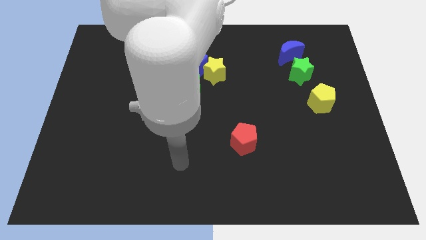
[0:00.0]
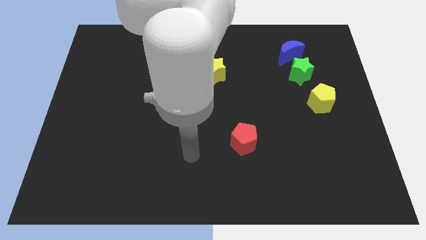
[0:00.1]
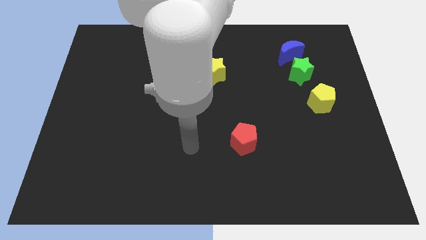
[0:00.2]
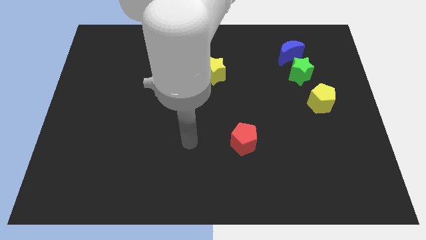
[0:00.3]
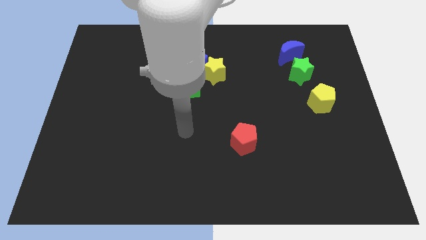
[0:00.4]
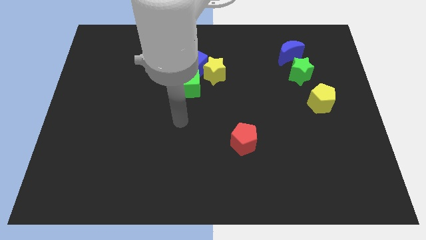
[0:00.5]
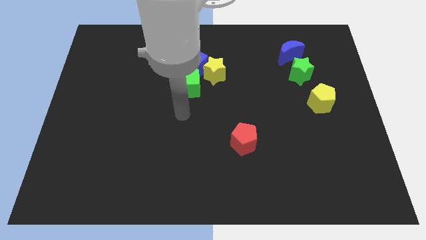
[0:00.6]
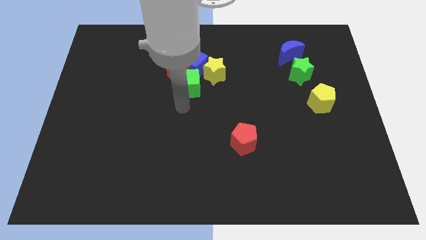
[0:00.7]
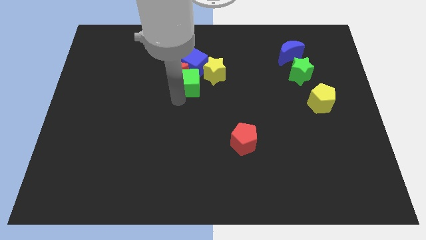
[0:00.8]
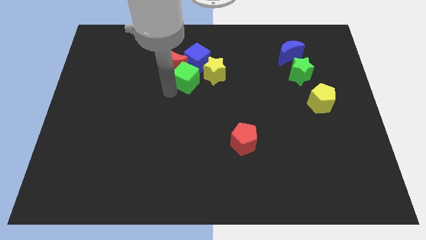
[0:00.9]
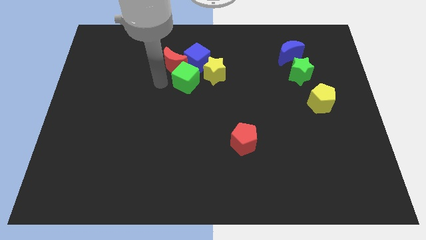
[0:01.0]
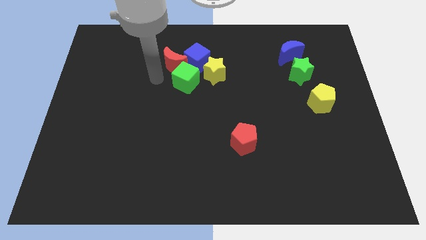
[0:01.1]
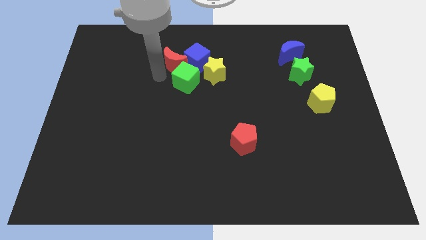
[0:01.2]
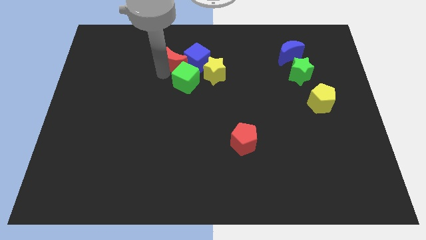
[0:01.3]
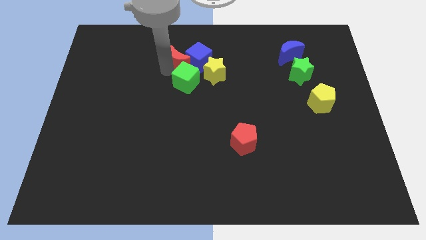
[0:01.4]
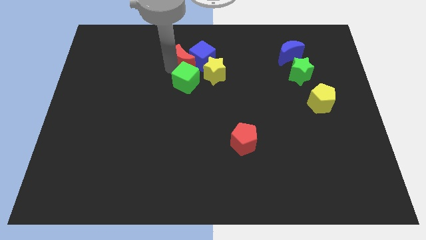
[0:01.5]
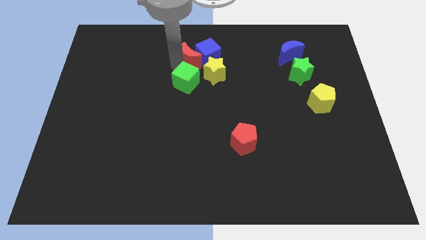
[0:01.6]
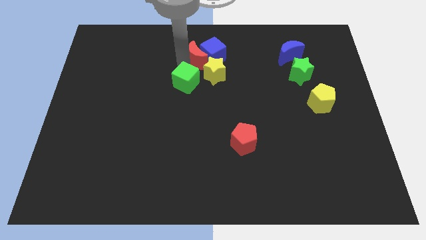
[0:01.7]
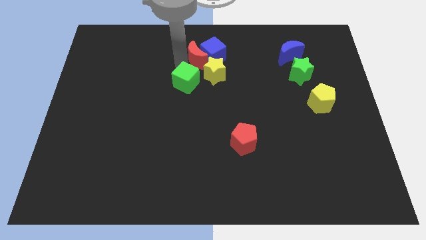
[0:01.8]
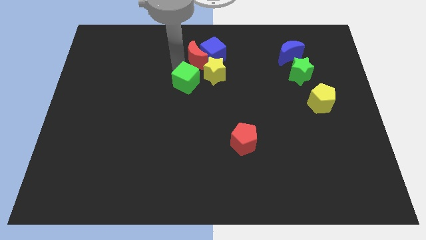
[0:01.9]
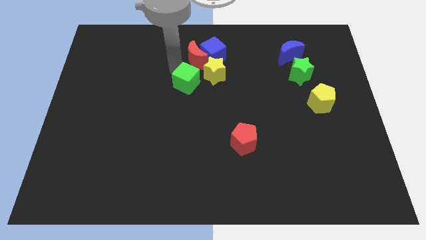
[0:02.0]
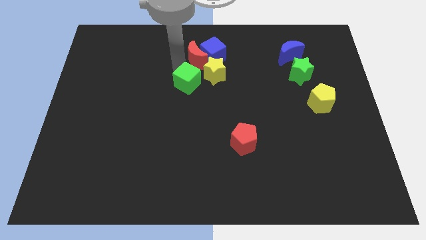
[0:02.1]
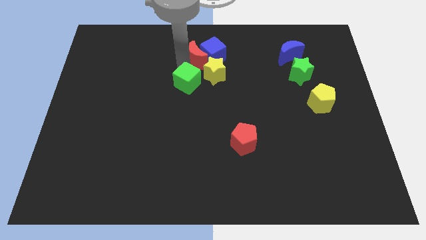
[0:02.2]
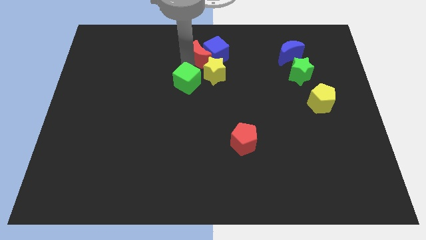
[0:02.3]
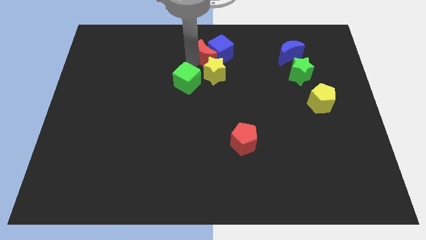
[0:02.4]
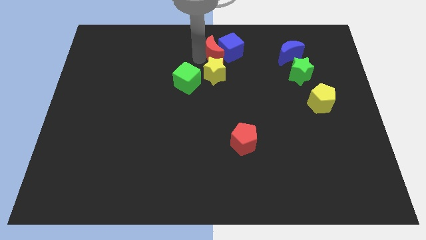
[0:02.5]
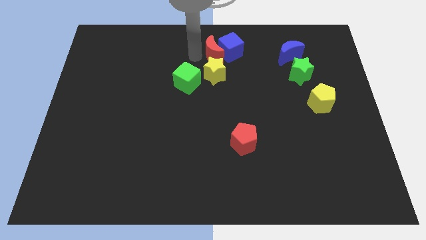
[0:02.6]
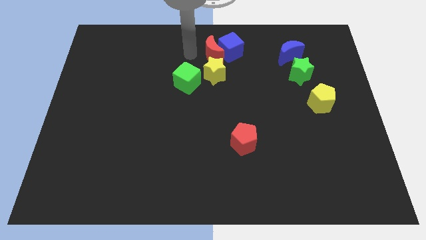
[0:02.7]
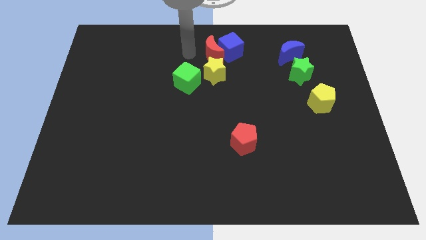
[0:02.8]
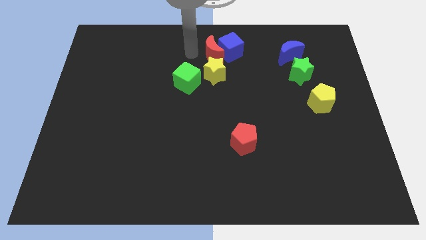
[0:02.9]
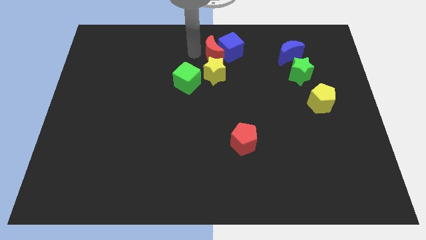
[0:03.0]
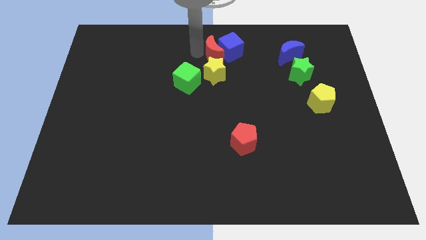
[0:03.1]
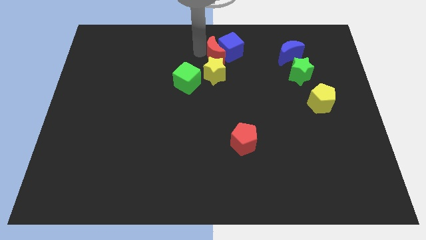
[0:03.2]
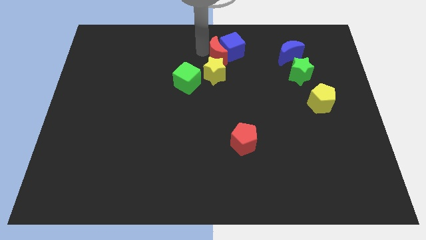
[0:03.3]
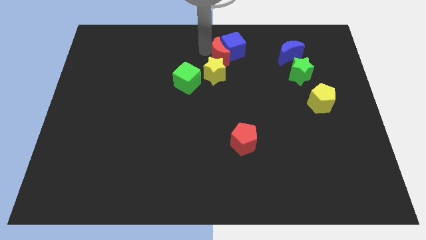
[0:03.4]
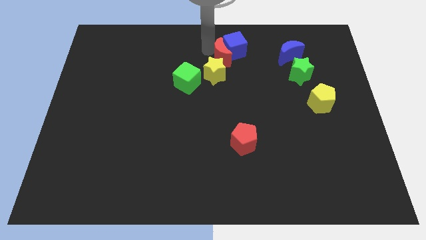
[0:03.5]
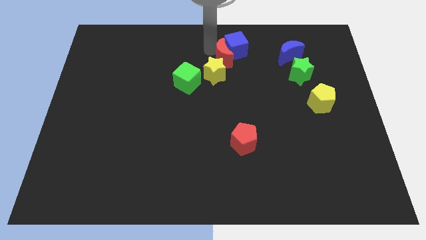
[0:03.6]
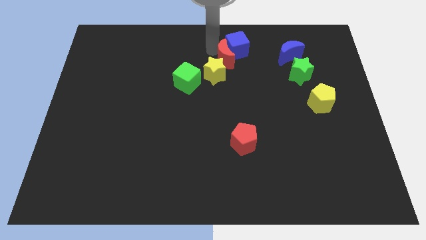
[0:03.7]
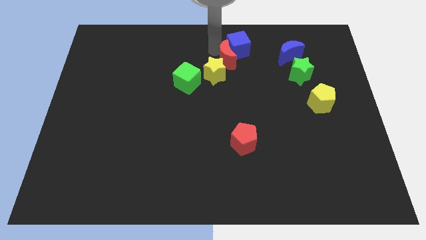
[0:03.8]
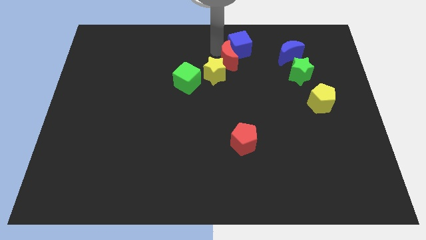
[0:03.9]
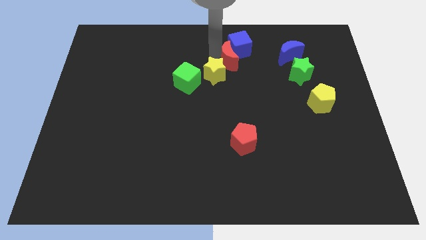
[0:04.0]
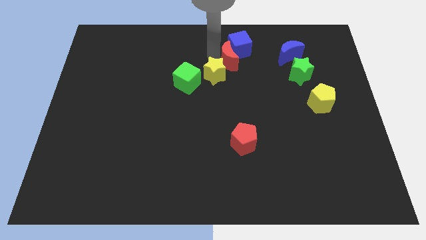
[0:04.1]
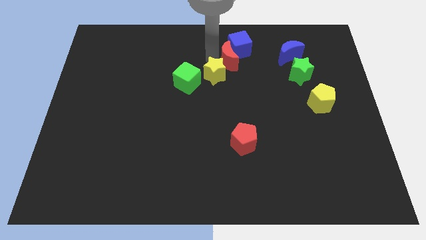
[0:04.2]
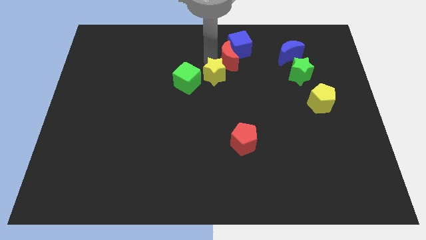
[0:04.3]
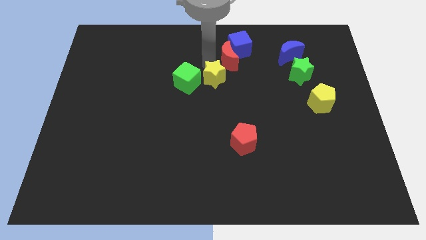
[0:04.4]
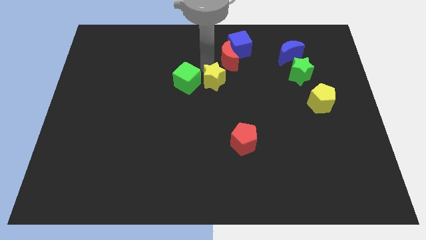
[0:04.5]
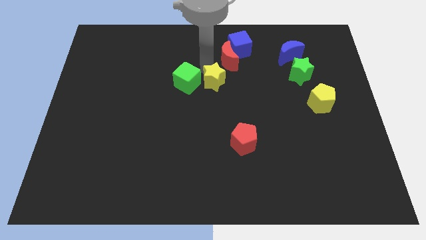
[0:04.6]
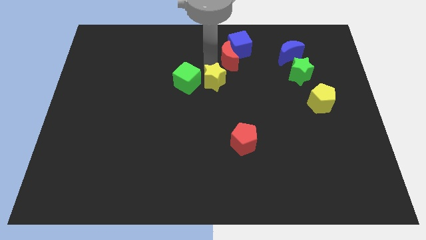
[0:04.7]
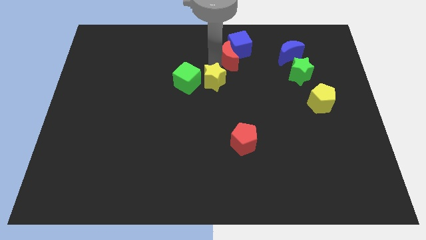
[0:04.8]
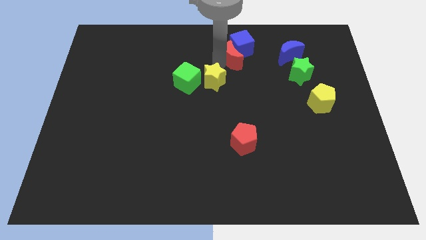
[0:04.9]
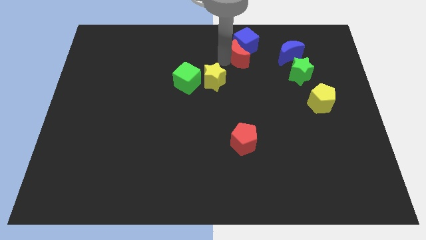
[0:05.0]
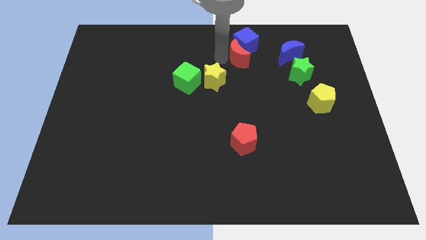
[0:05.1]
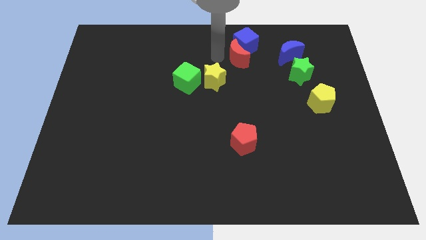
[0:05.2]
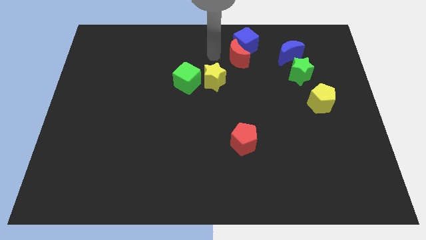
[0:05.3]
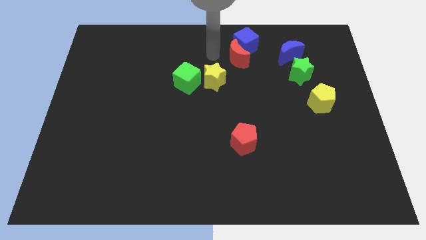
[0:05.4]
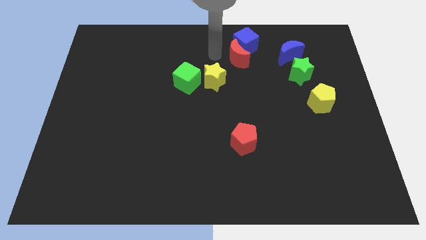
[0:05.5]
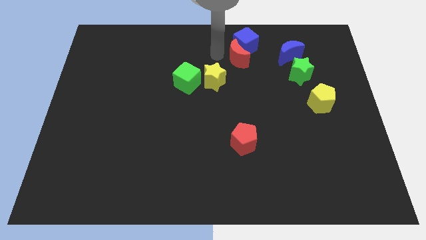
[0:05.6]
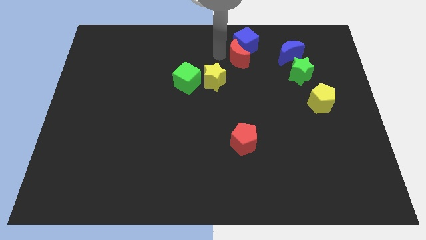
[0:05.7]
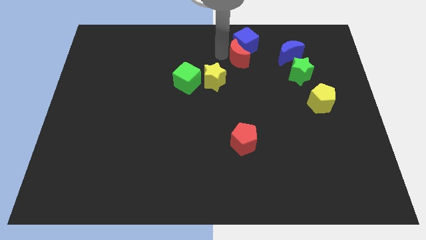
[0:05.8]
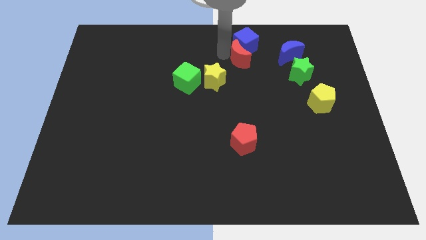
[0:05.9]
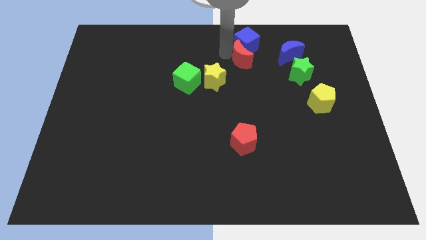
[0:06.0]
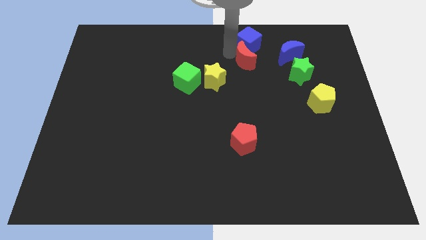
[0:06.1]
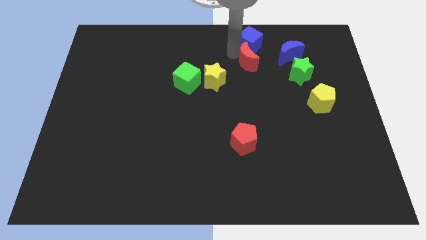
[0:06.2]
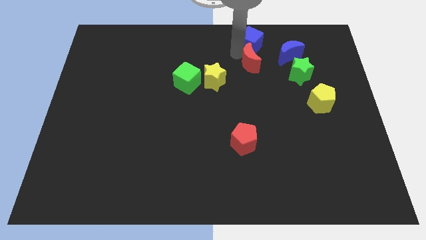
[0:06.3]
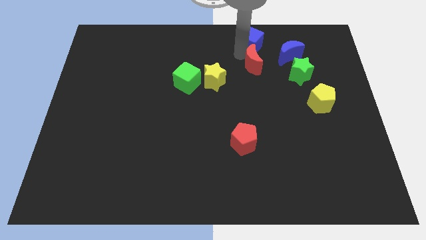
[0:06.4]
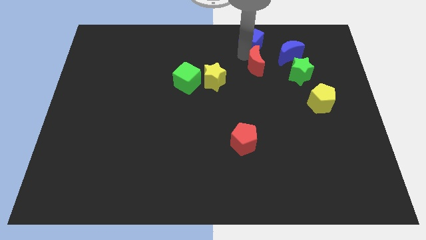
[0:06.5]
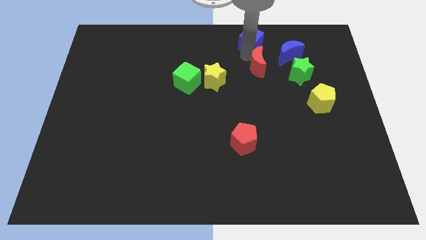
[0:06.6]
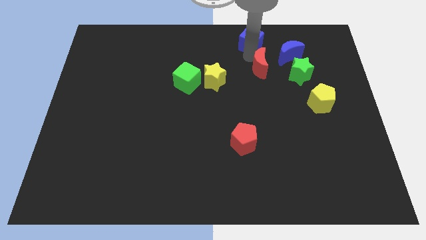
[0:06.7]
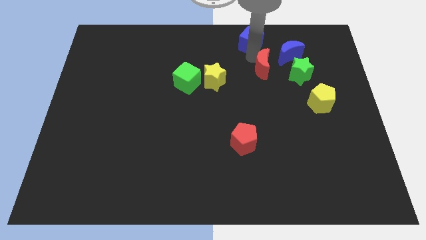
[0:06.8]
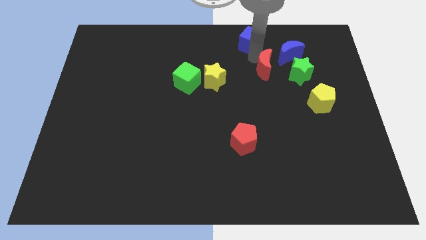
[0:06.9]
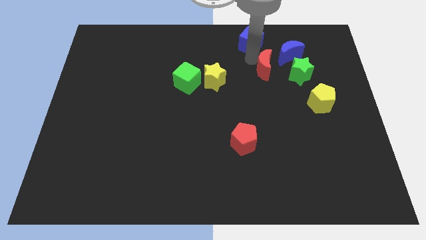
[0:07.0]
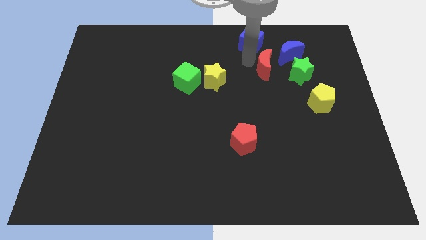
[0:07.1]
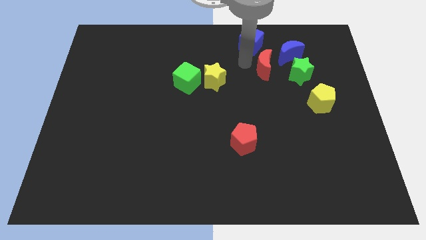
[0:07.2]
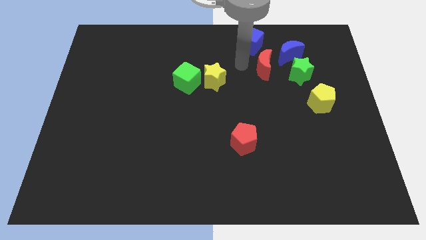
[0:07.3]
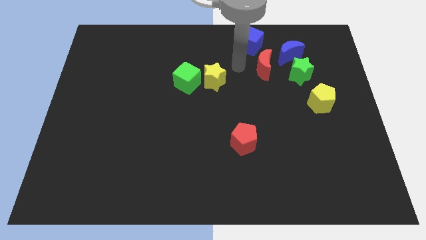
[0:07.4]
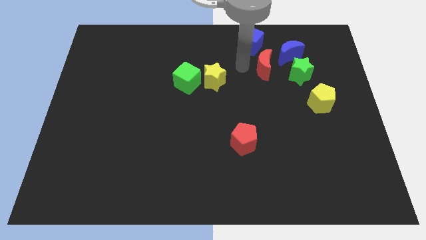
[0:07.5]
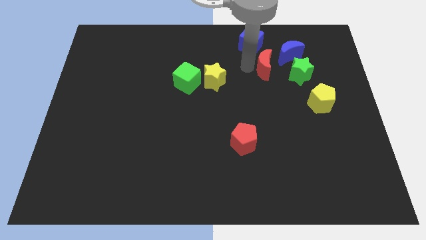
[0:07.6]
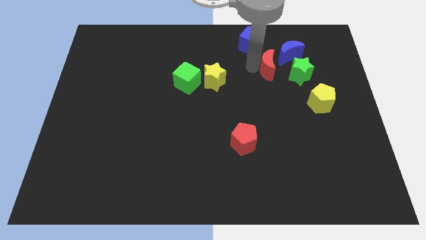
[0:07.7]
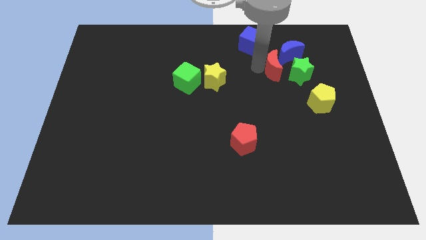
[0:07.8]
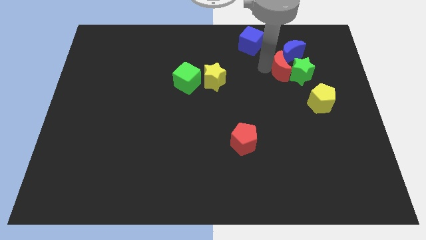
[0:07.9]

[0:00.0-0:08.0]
put the red moon towards the green star
